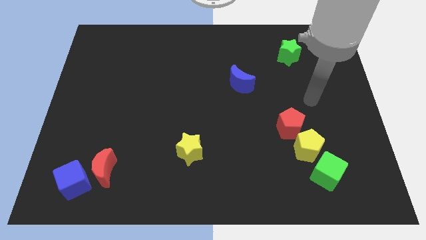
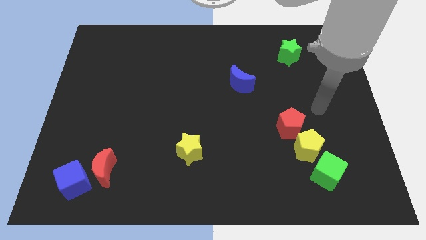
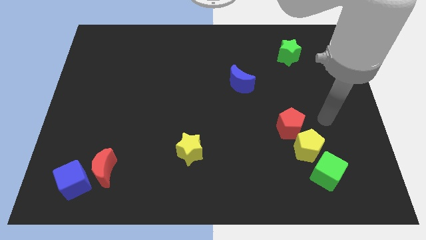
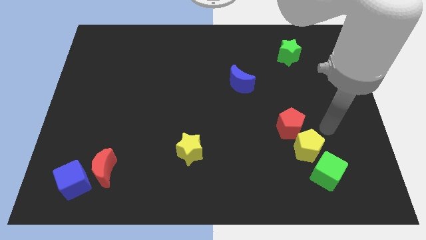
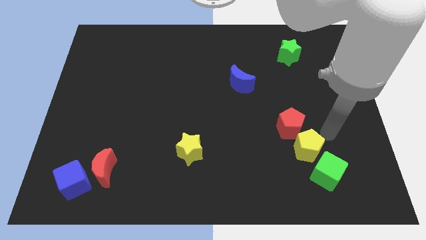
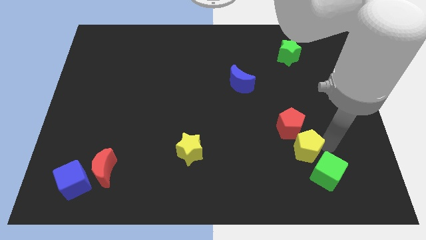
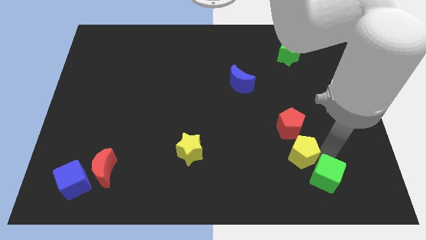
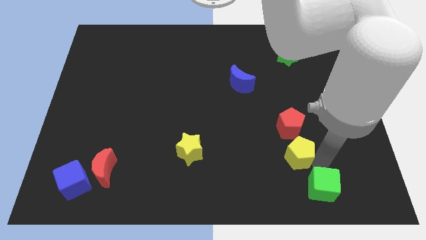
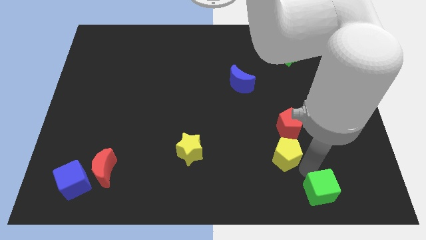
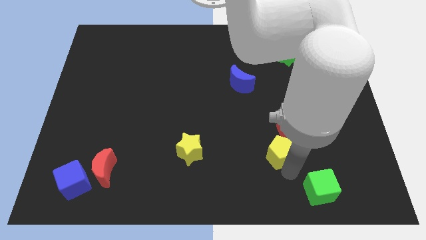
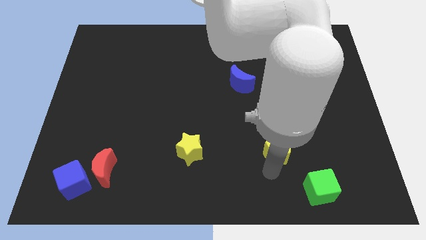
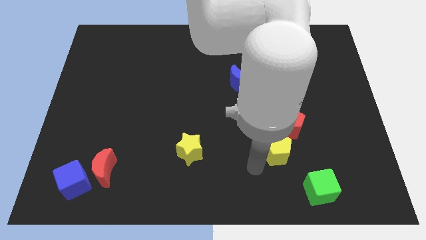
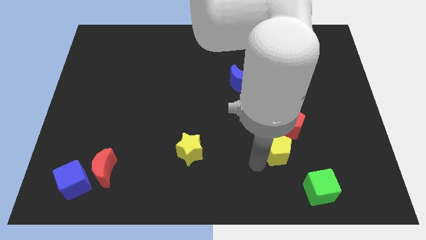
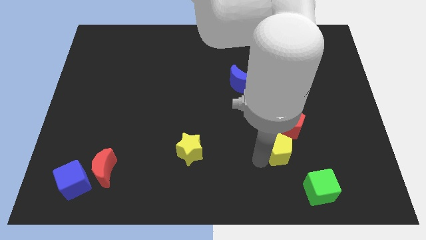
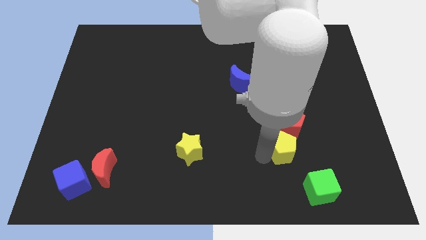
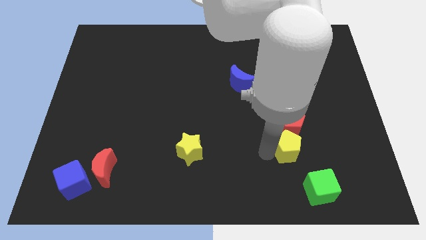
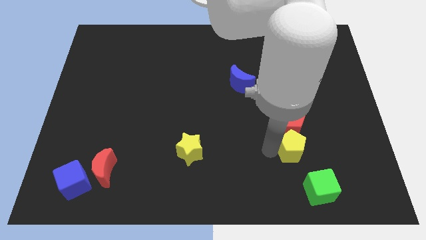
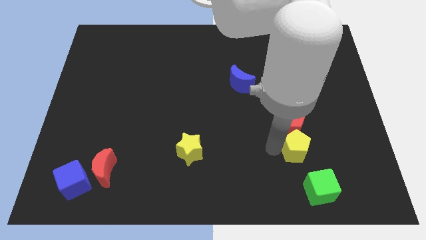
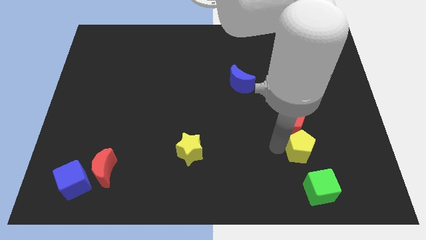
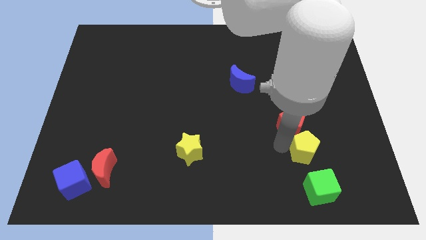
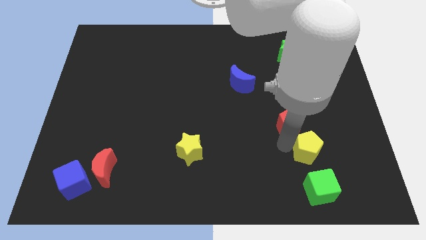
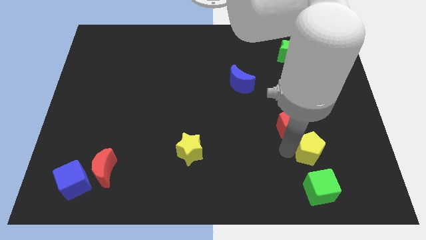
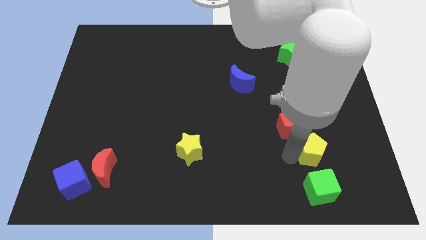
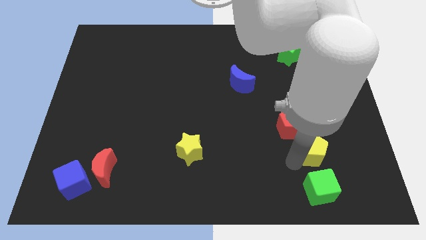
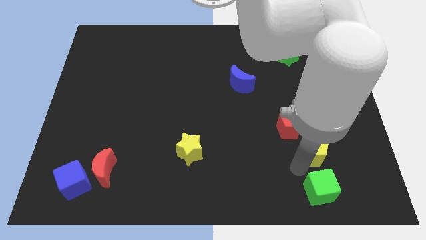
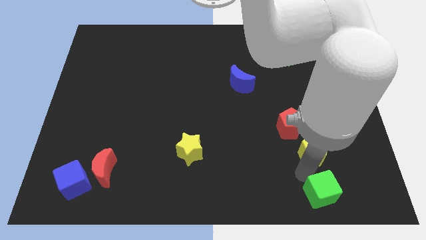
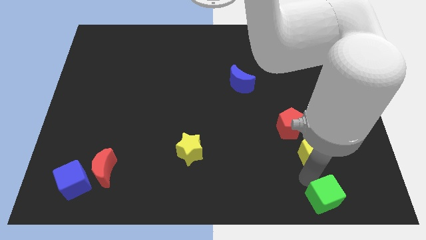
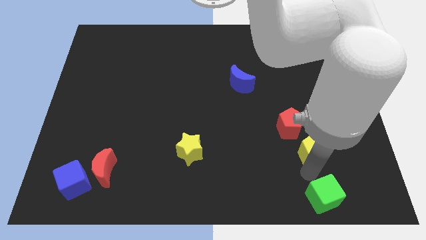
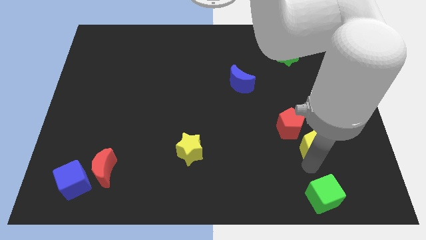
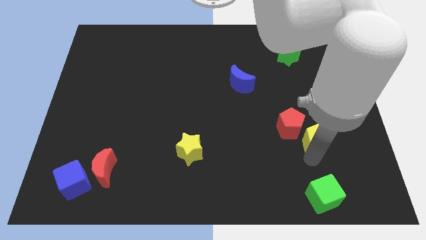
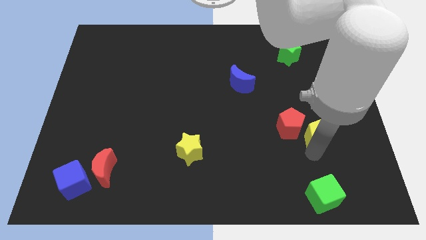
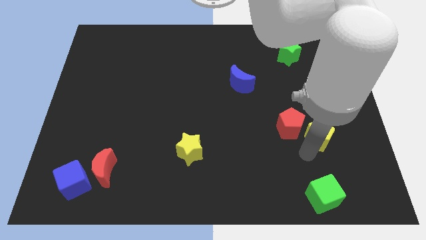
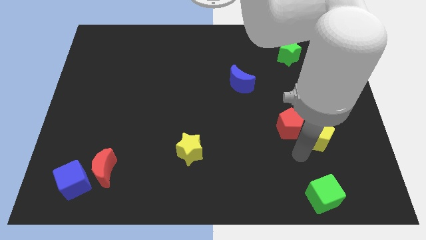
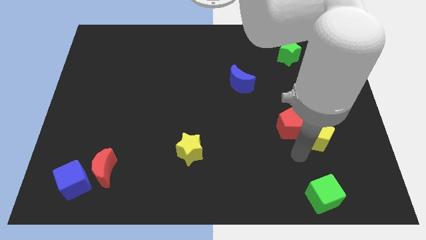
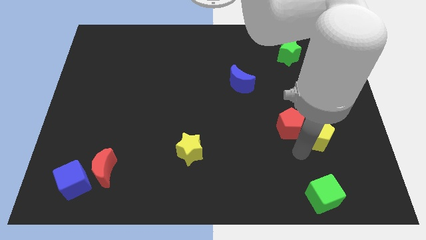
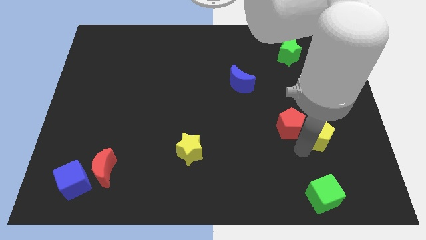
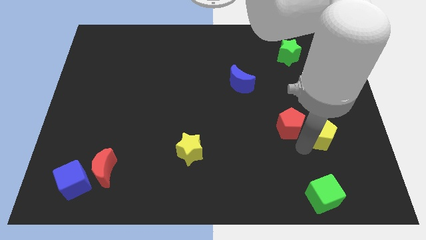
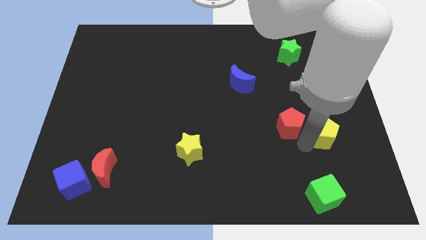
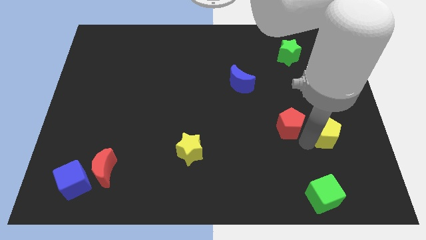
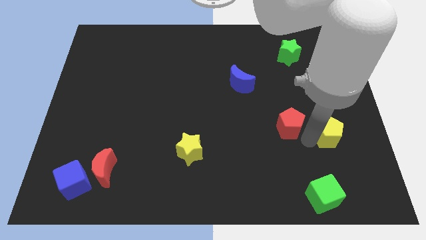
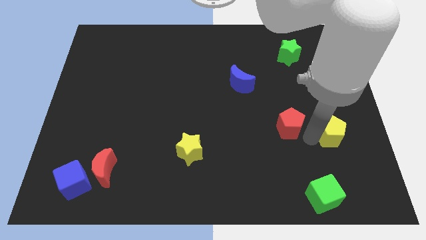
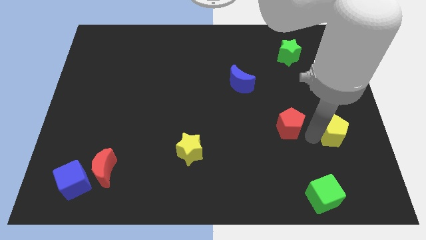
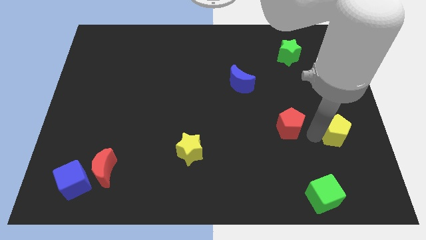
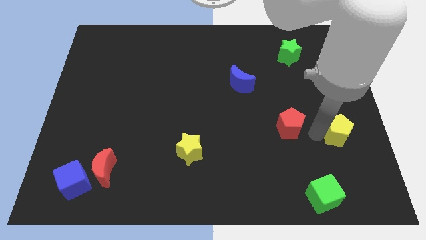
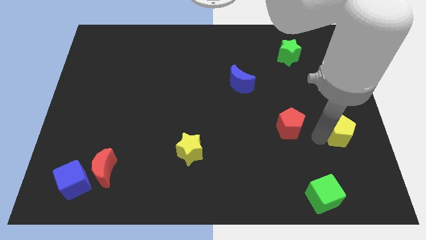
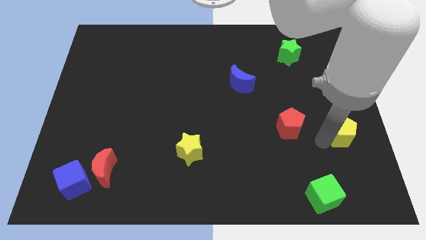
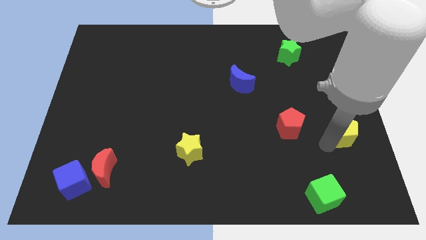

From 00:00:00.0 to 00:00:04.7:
move the yellow pentagon to the center right

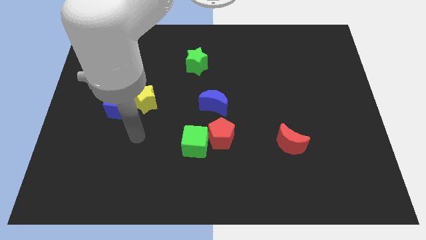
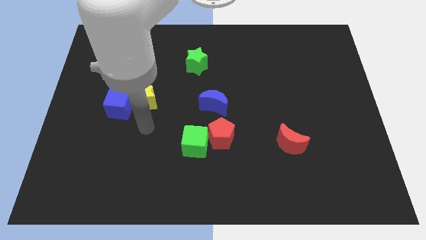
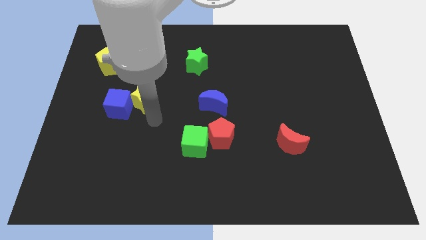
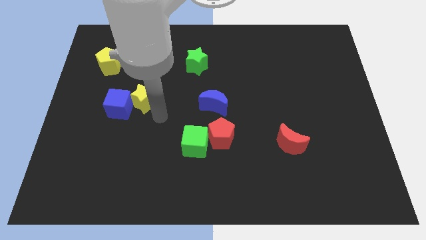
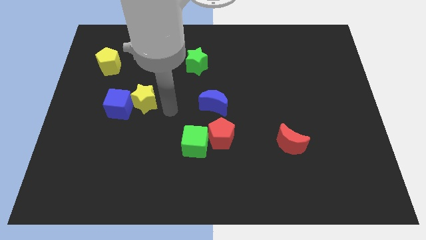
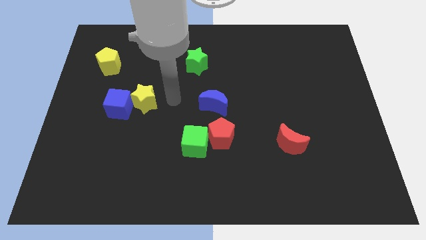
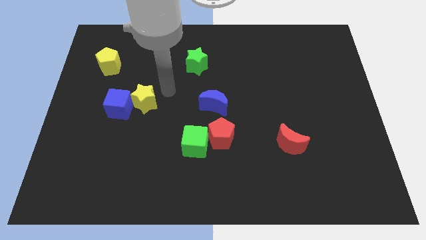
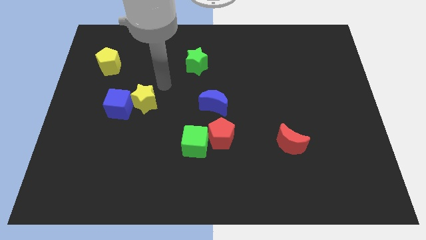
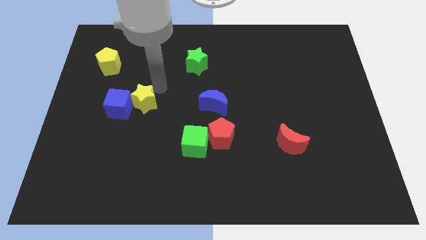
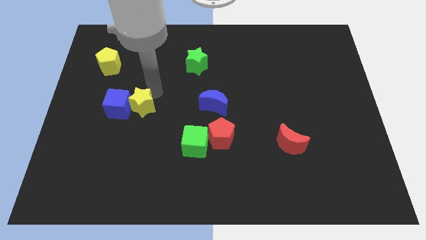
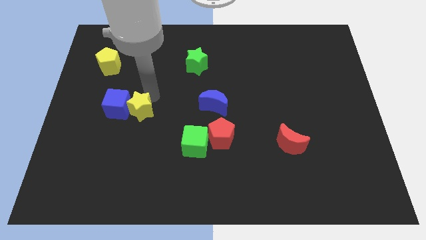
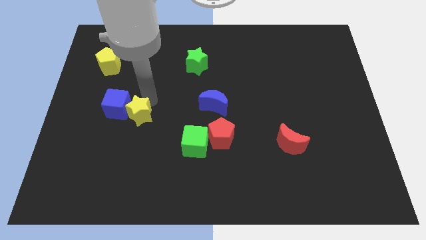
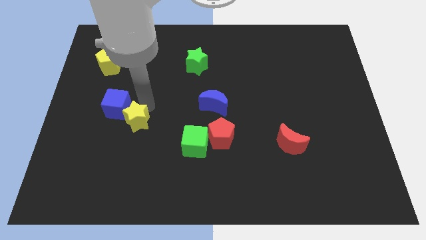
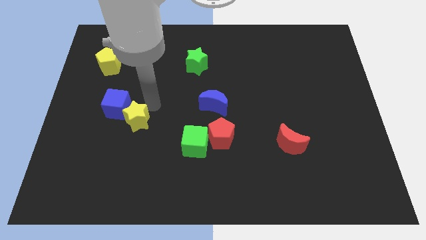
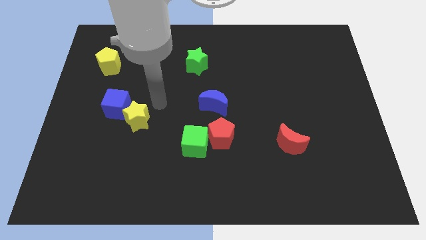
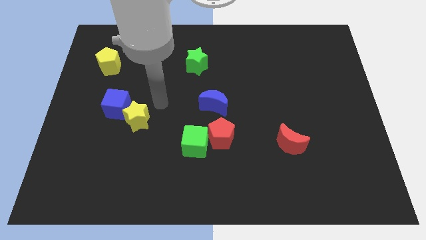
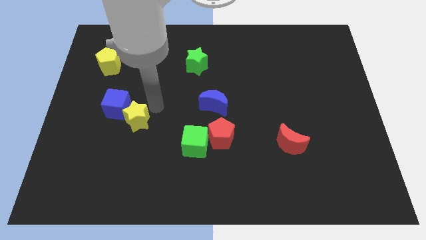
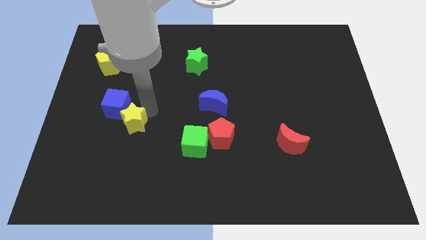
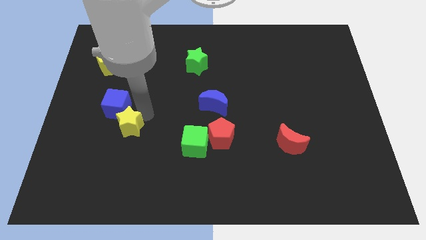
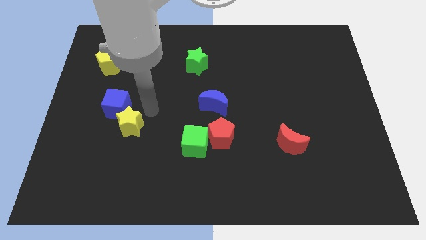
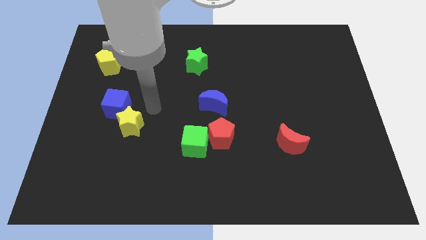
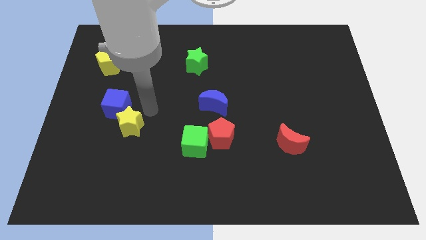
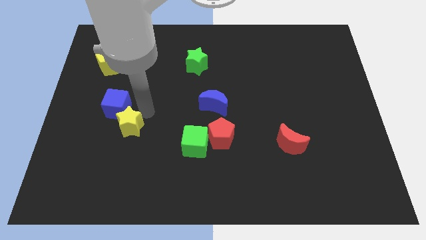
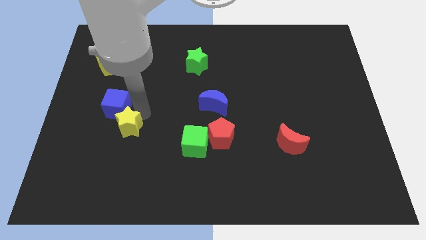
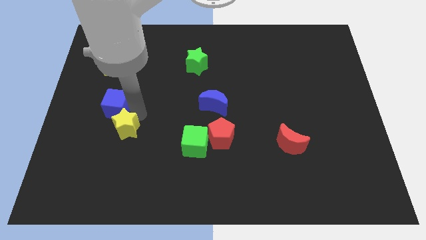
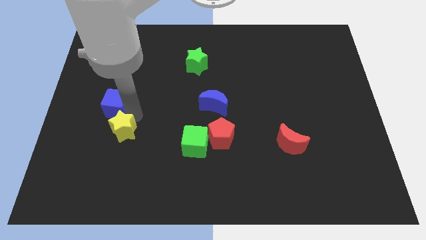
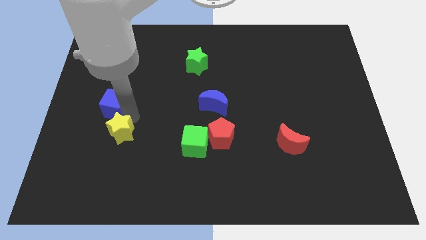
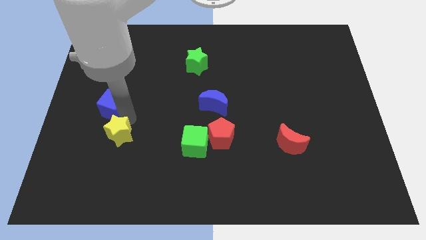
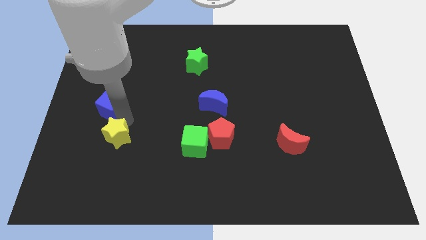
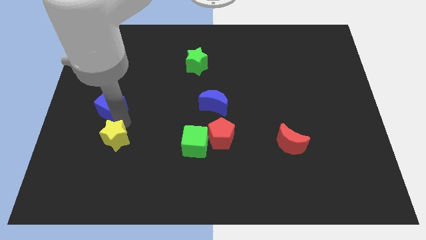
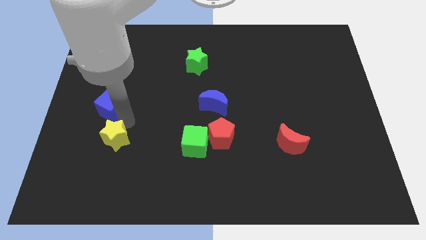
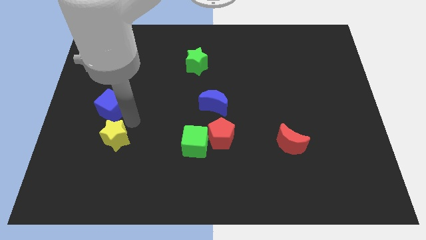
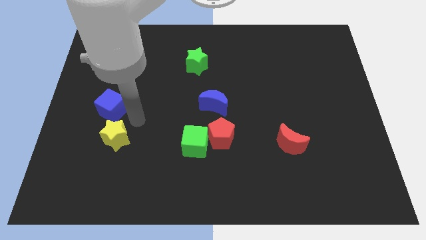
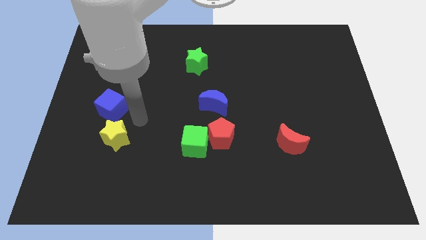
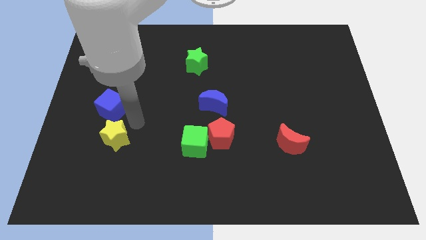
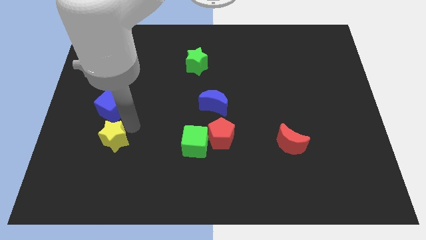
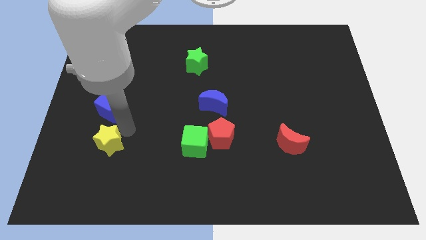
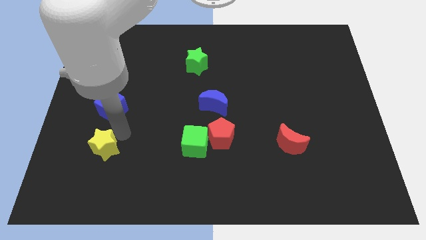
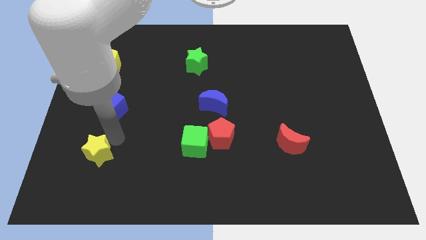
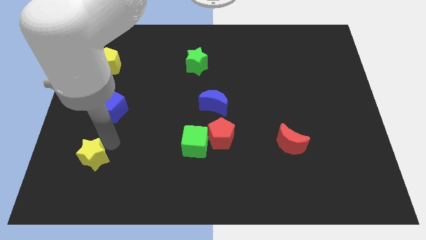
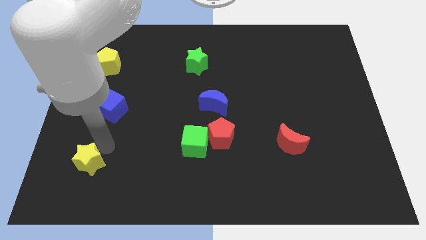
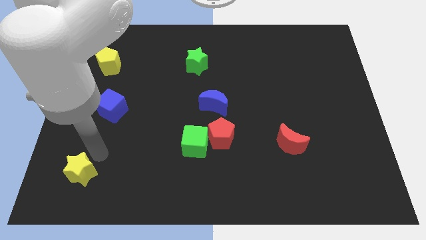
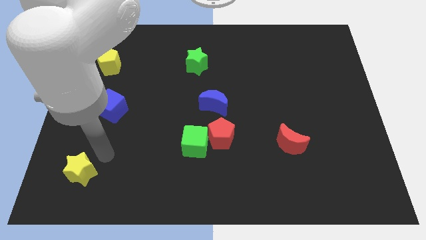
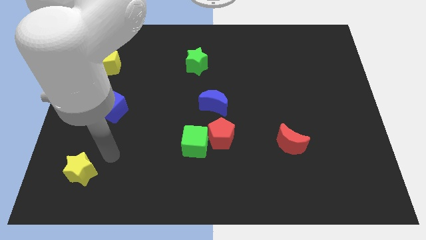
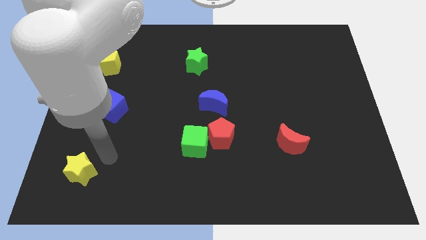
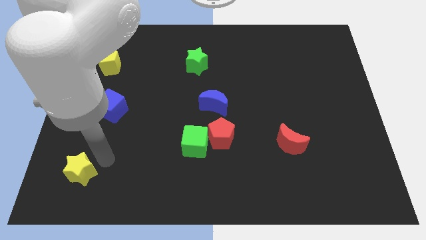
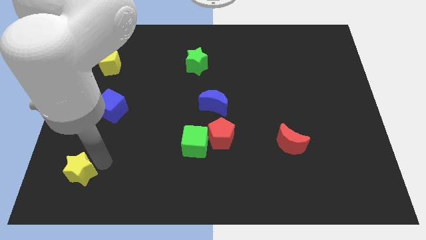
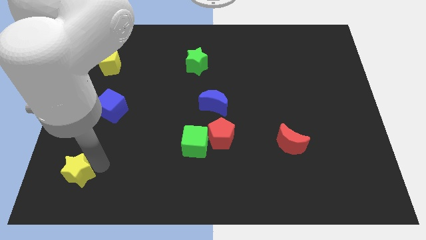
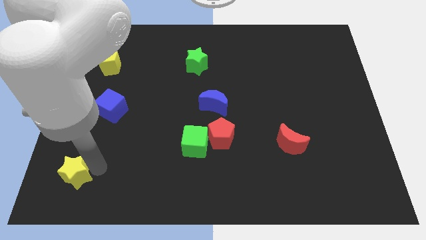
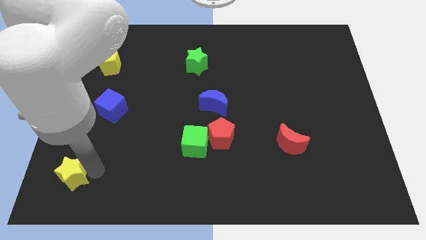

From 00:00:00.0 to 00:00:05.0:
put the yellow star to the bottom left of the board
